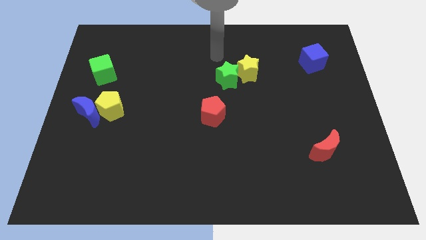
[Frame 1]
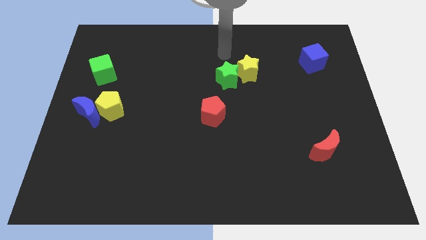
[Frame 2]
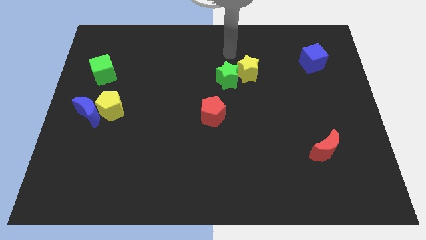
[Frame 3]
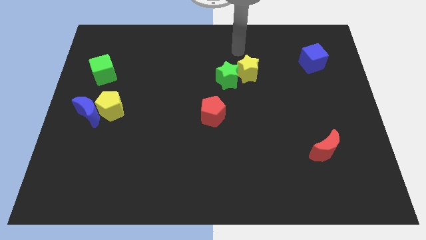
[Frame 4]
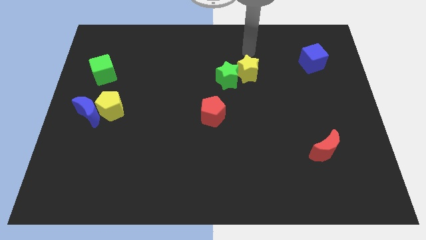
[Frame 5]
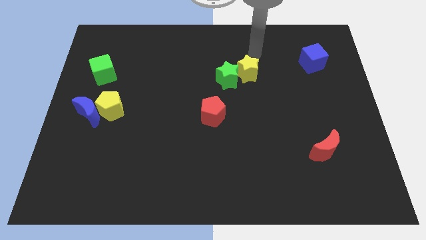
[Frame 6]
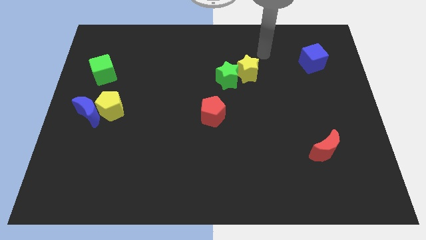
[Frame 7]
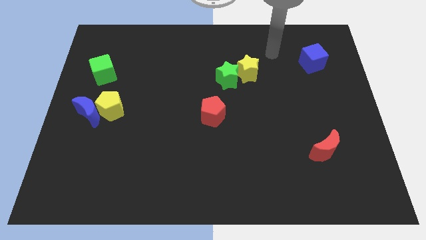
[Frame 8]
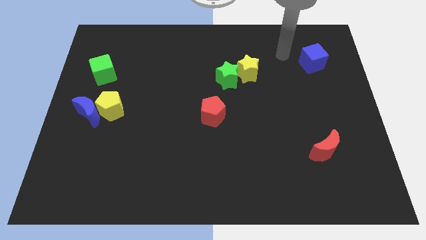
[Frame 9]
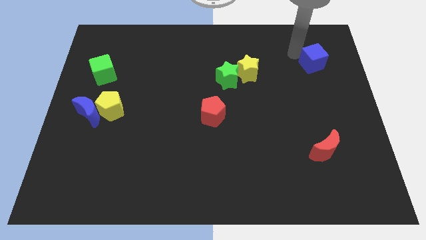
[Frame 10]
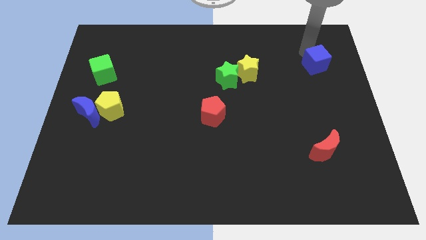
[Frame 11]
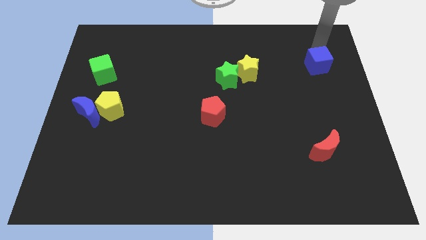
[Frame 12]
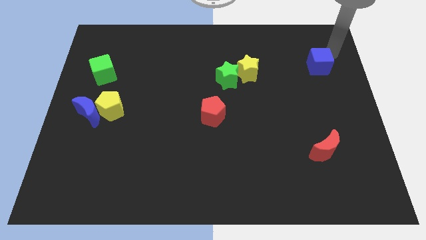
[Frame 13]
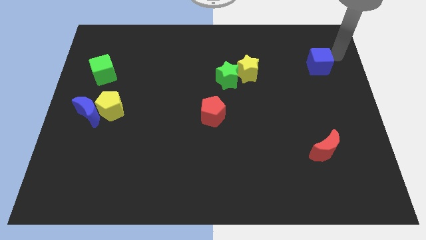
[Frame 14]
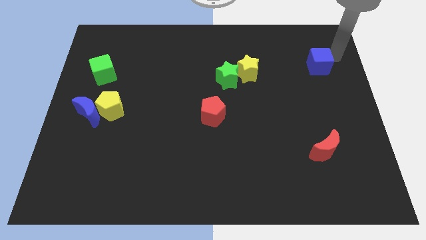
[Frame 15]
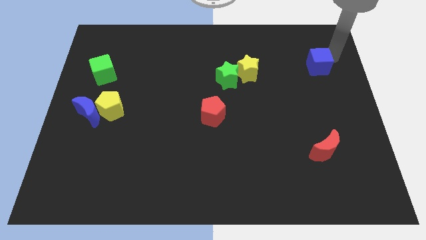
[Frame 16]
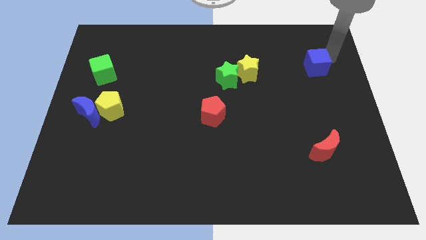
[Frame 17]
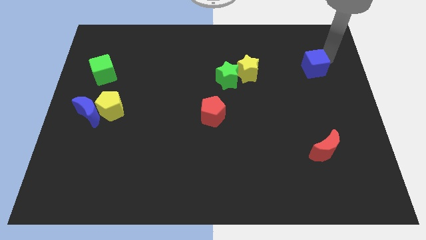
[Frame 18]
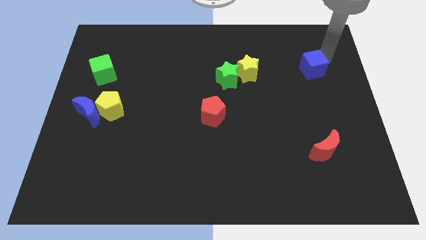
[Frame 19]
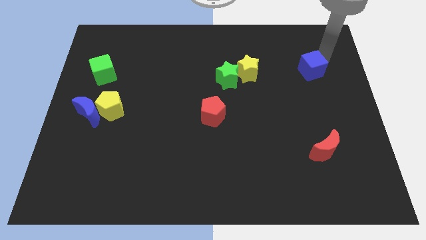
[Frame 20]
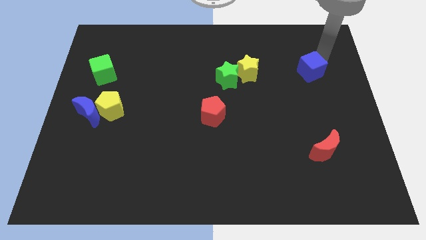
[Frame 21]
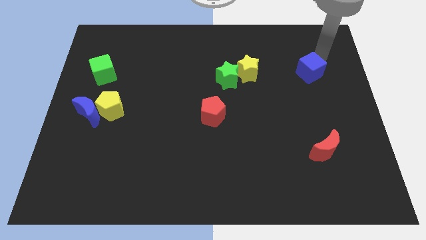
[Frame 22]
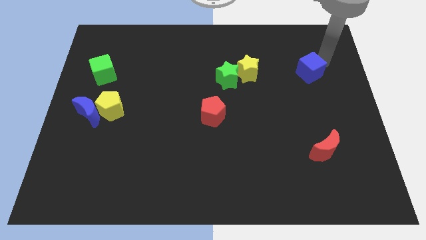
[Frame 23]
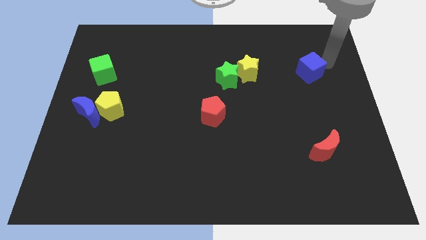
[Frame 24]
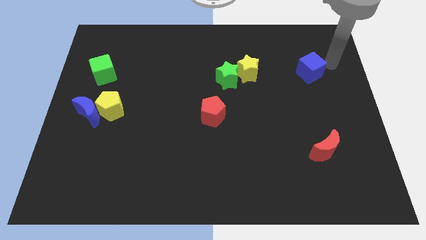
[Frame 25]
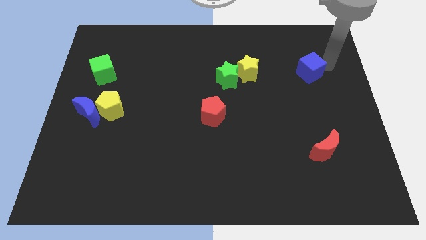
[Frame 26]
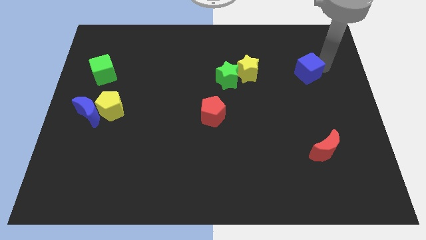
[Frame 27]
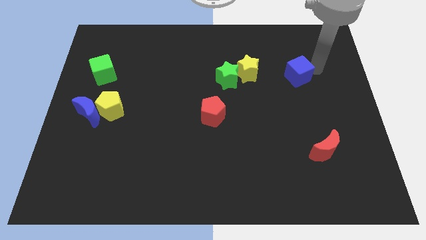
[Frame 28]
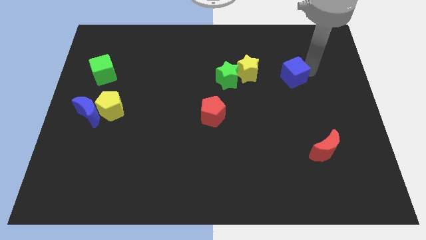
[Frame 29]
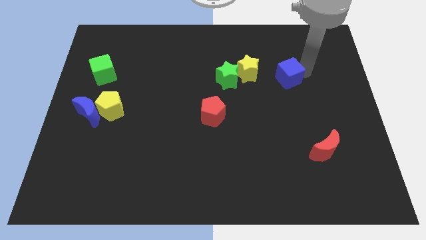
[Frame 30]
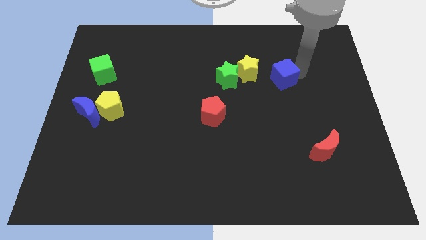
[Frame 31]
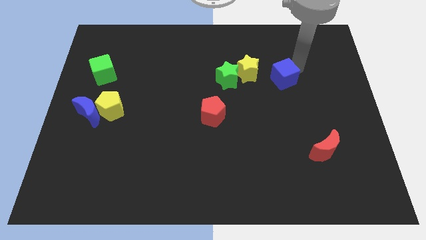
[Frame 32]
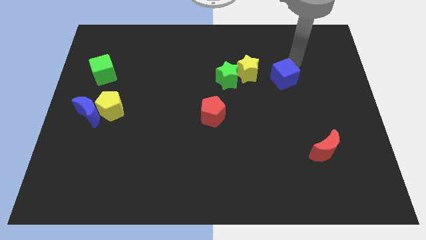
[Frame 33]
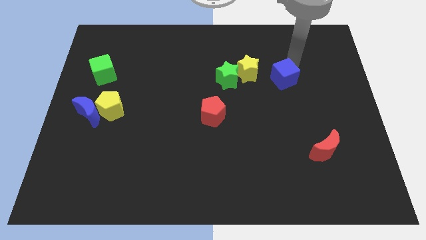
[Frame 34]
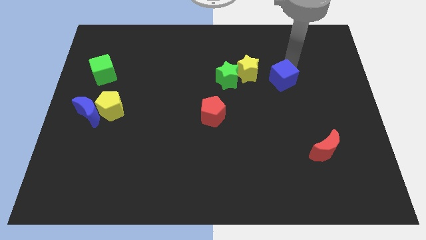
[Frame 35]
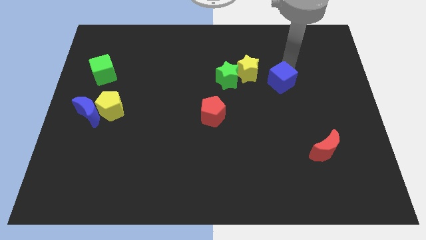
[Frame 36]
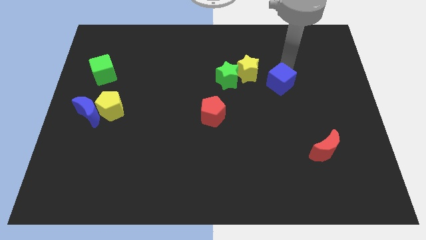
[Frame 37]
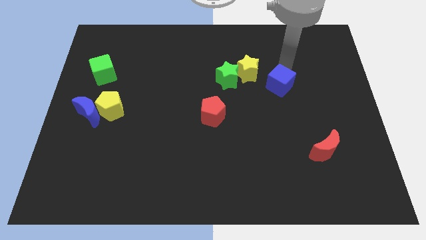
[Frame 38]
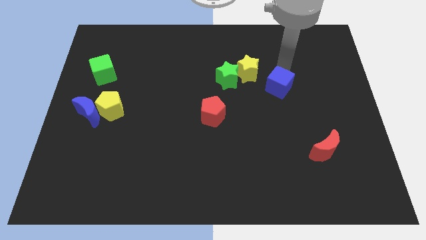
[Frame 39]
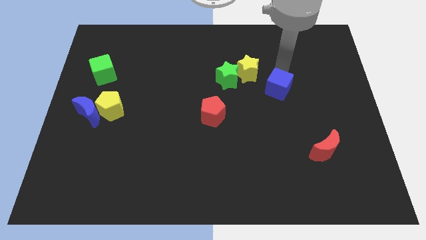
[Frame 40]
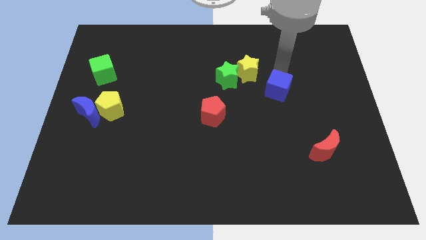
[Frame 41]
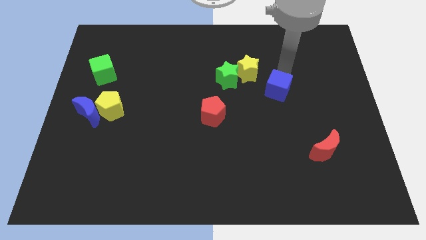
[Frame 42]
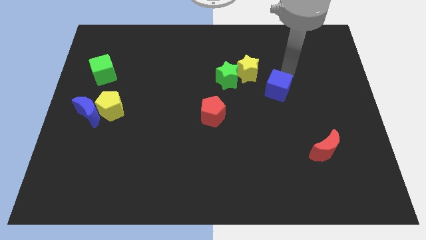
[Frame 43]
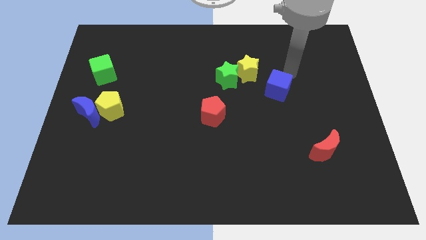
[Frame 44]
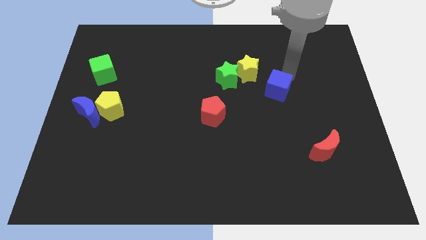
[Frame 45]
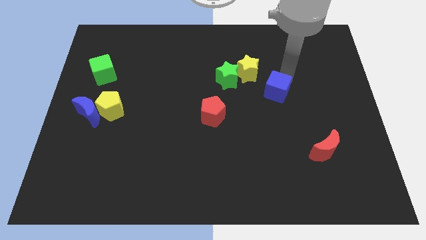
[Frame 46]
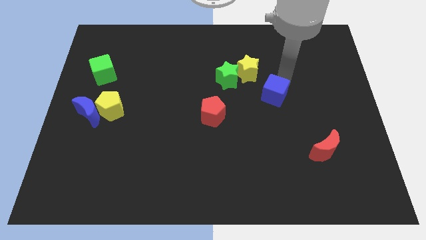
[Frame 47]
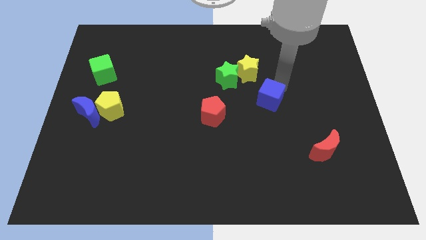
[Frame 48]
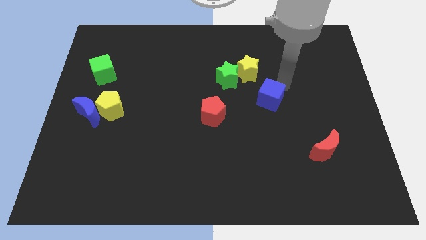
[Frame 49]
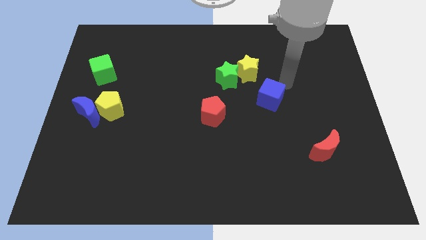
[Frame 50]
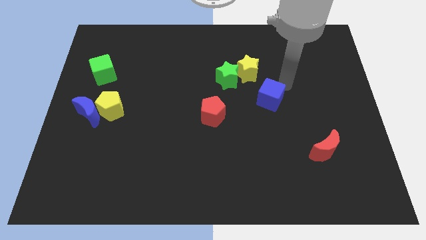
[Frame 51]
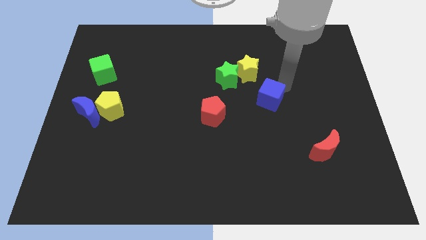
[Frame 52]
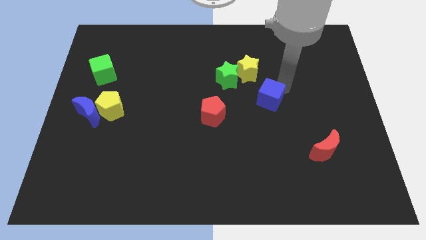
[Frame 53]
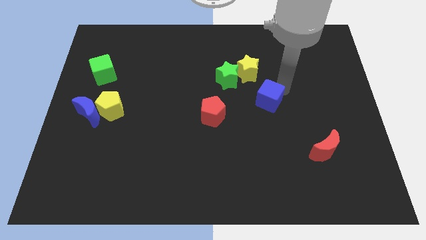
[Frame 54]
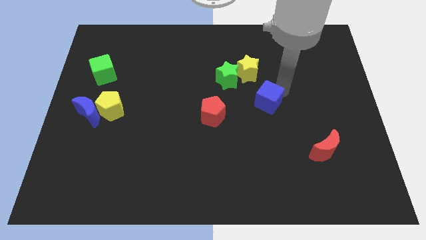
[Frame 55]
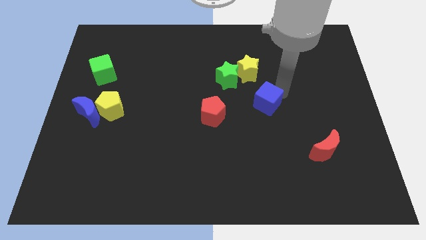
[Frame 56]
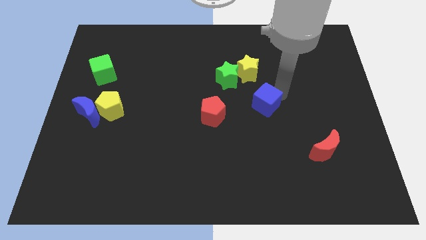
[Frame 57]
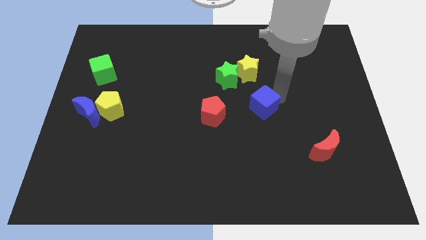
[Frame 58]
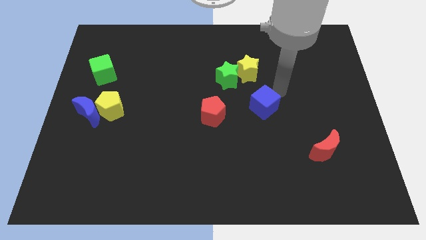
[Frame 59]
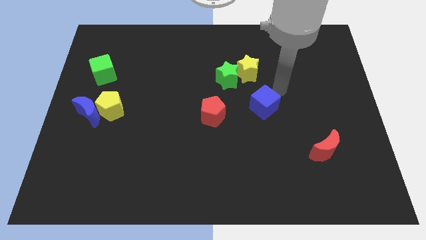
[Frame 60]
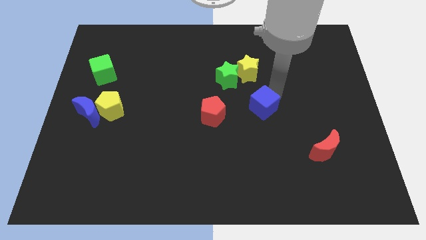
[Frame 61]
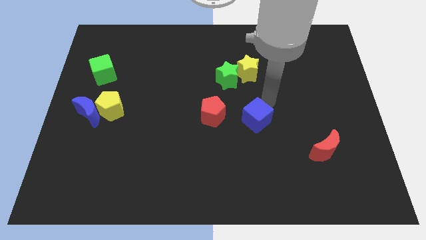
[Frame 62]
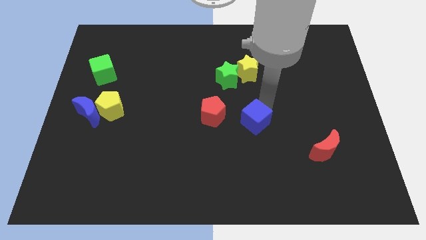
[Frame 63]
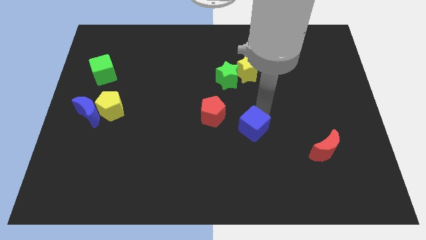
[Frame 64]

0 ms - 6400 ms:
put the blue cube to the bottom right side of the red pentagon

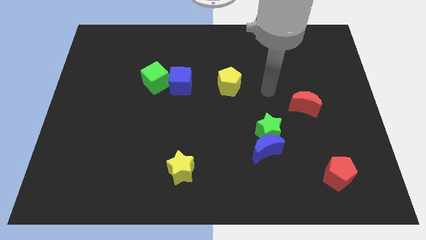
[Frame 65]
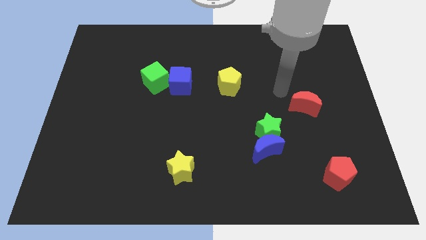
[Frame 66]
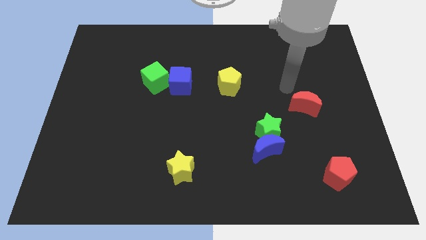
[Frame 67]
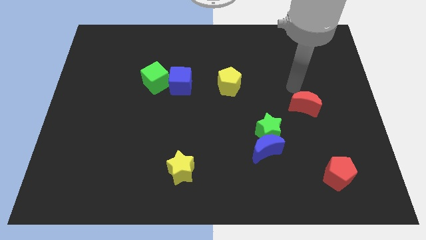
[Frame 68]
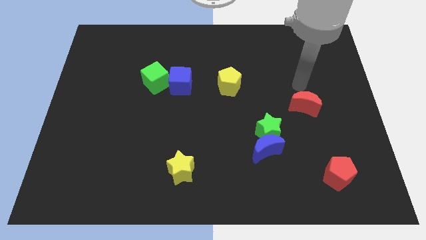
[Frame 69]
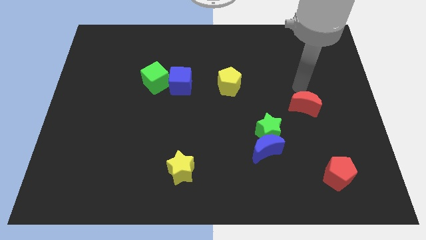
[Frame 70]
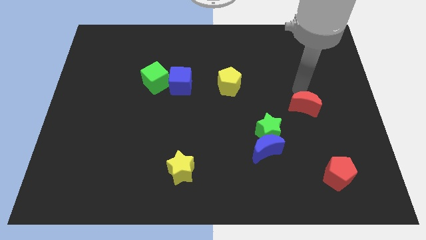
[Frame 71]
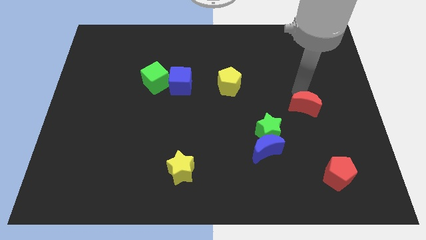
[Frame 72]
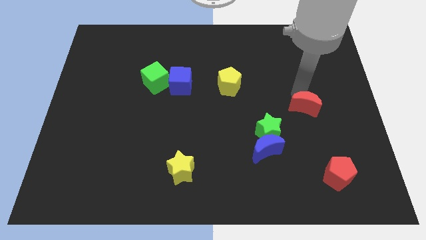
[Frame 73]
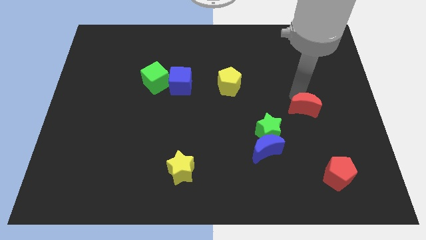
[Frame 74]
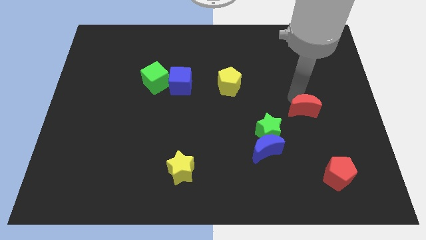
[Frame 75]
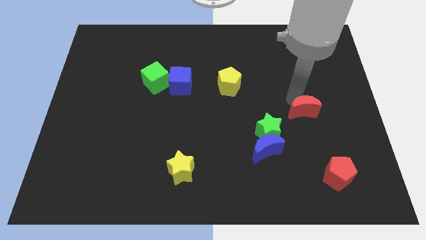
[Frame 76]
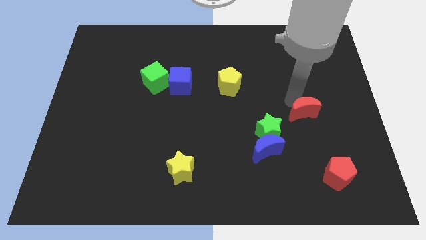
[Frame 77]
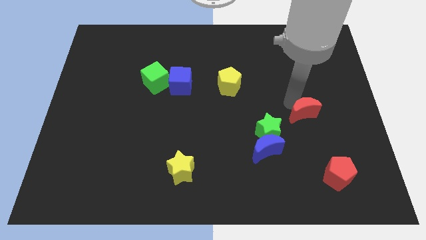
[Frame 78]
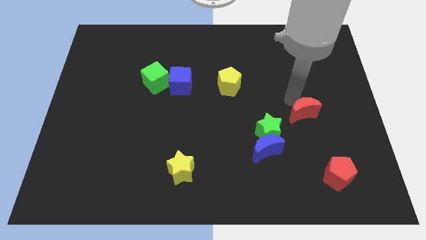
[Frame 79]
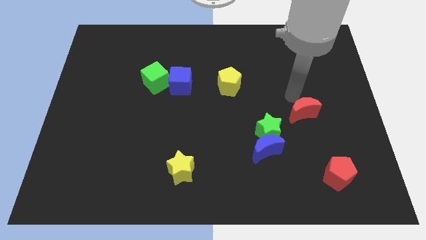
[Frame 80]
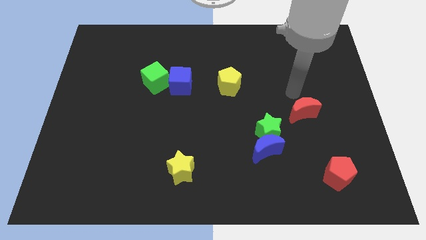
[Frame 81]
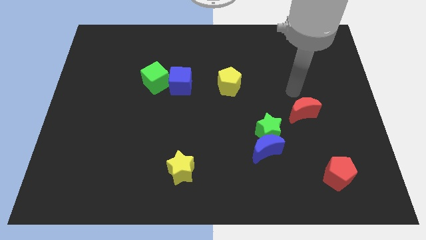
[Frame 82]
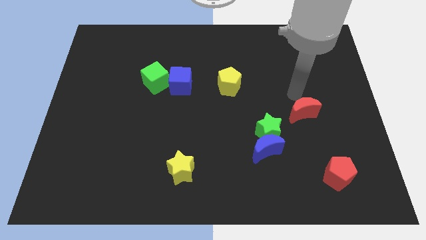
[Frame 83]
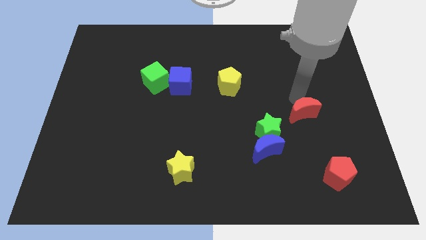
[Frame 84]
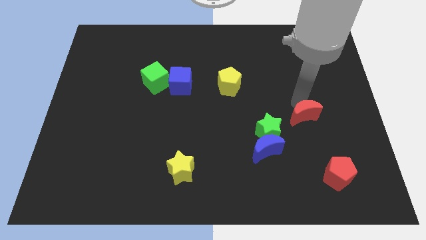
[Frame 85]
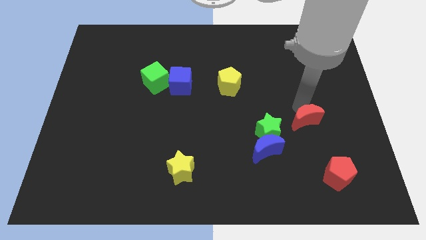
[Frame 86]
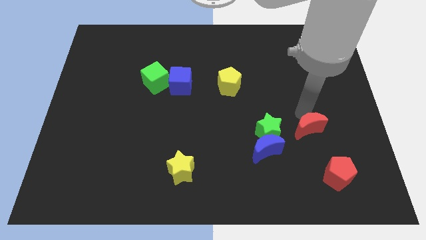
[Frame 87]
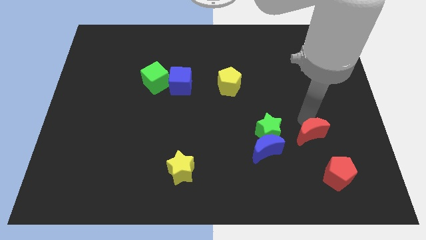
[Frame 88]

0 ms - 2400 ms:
move the red moon just right of the blue moon
